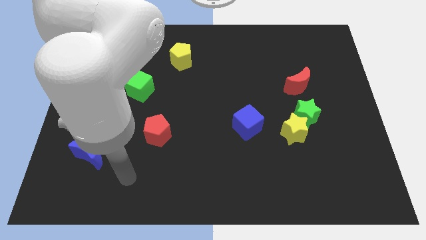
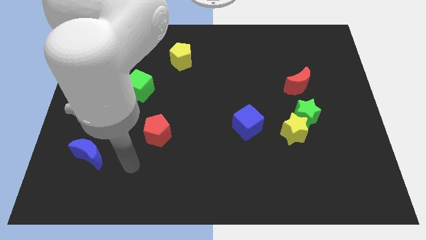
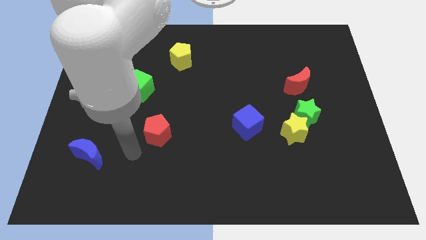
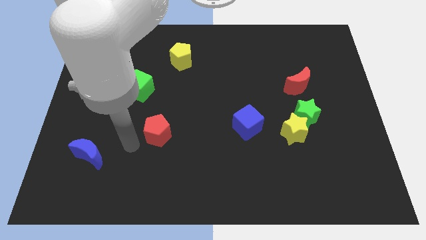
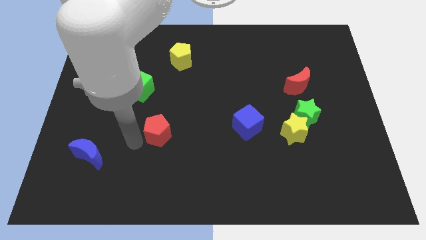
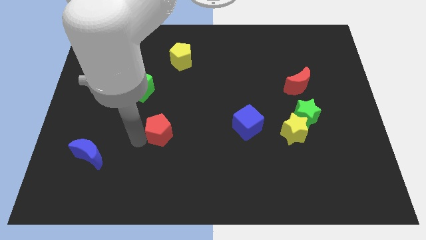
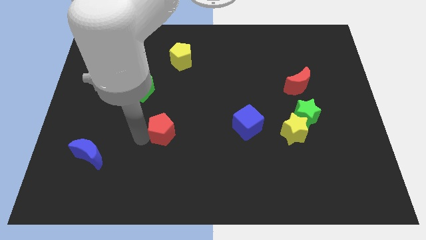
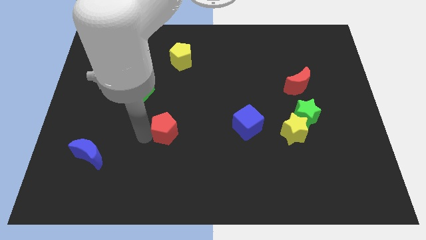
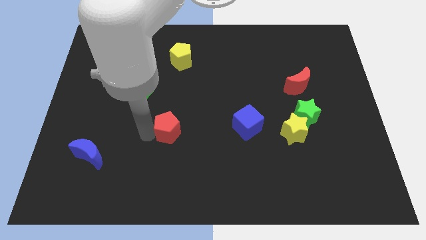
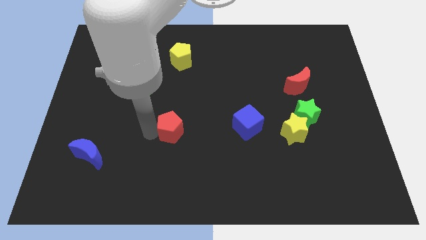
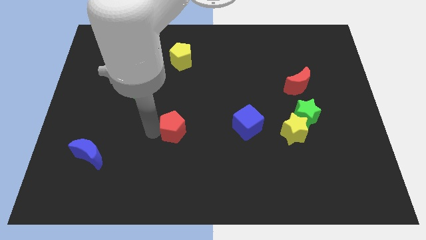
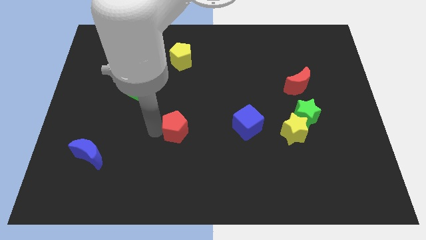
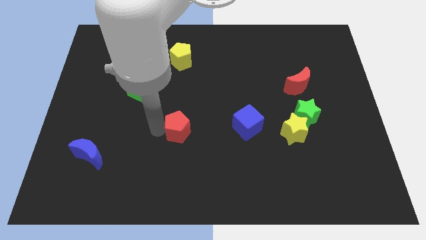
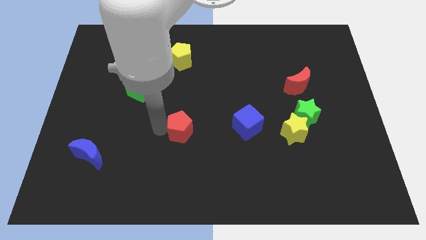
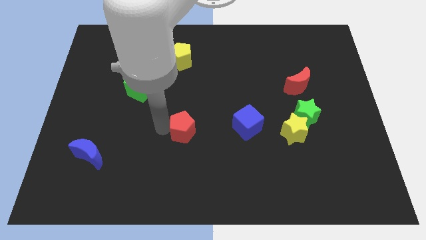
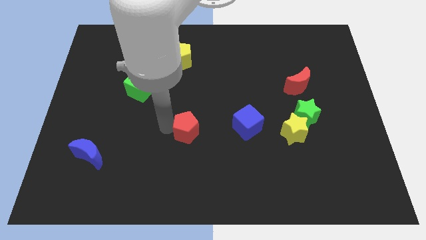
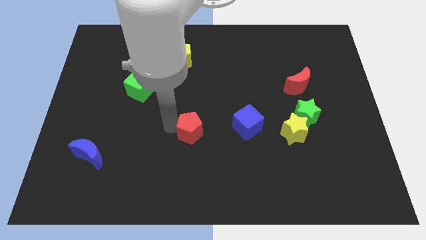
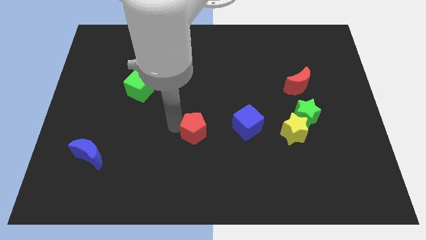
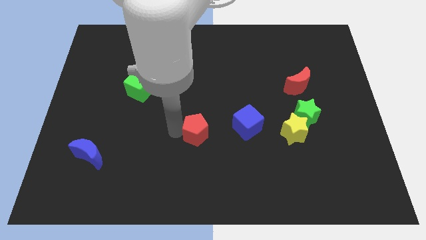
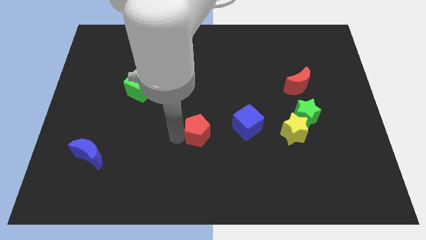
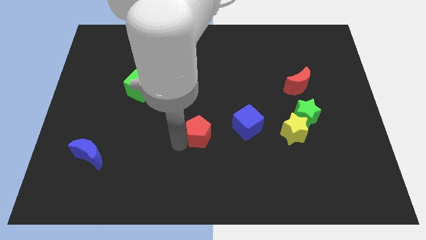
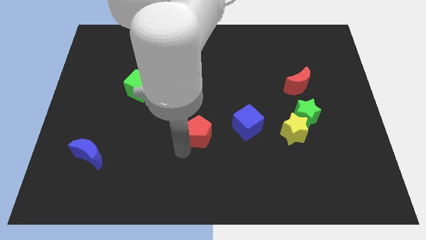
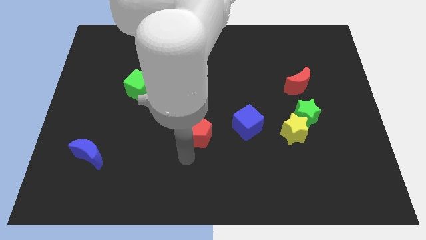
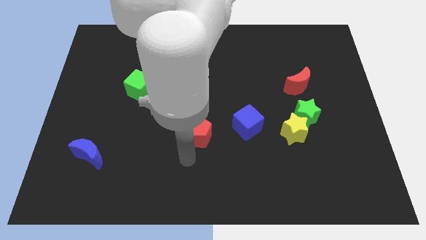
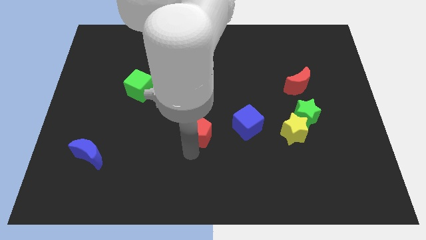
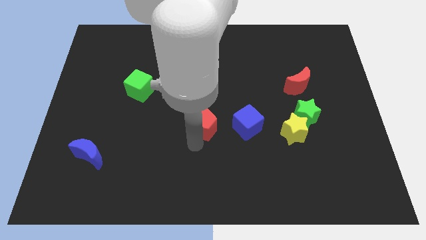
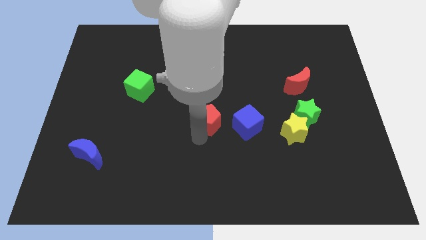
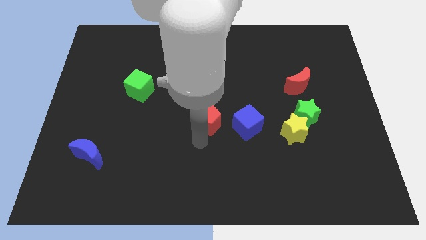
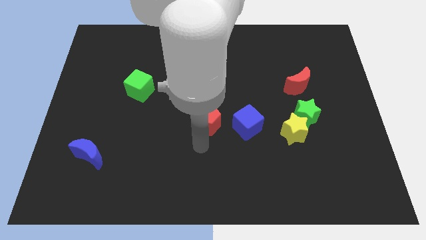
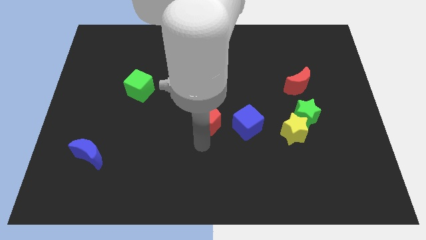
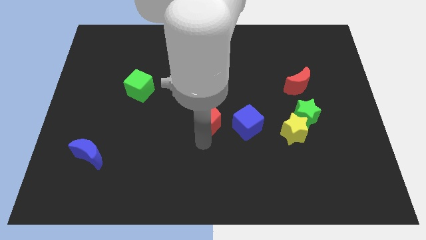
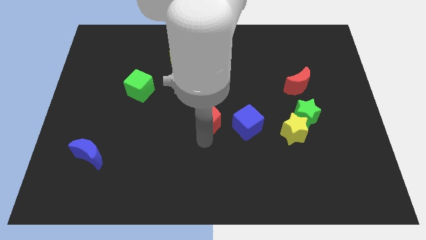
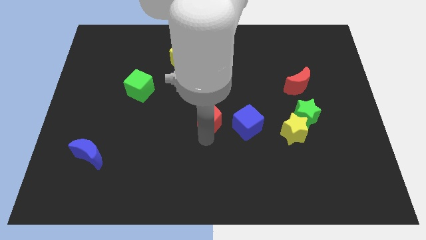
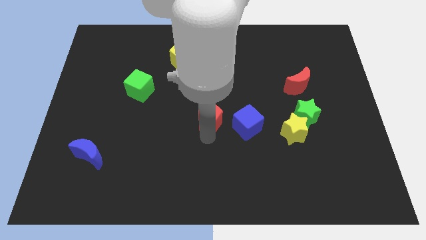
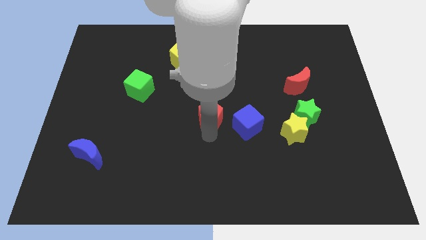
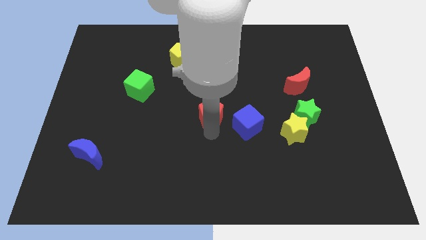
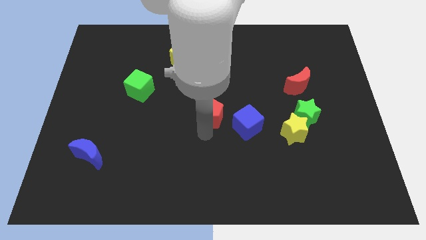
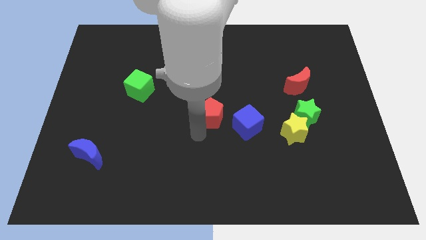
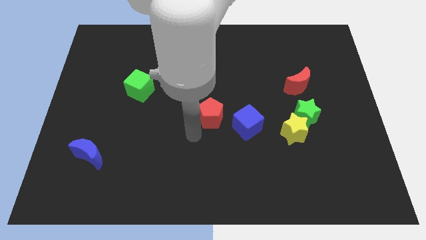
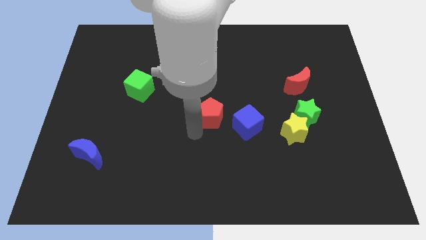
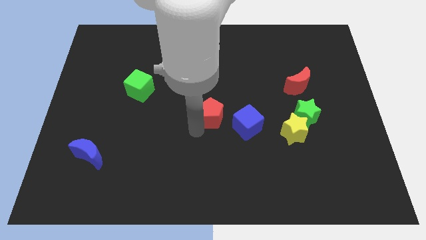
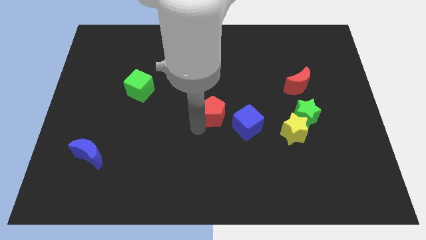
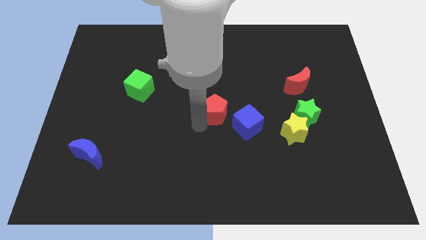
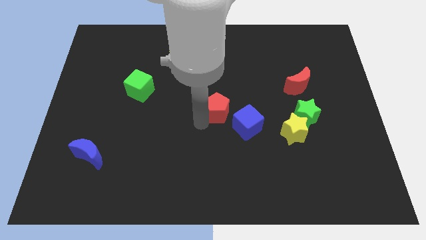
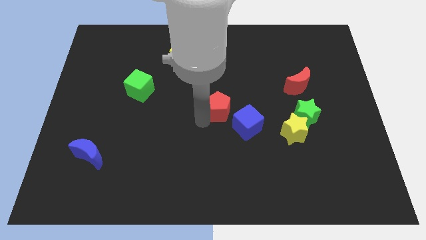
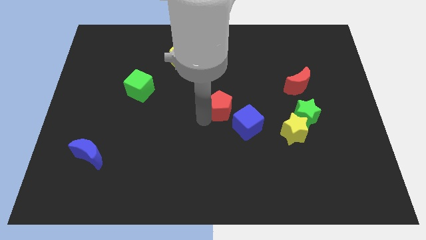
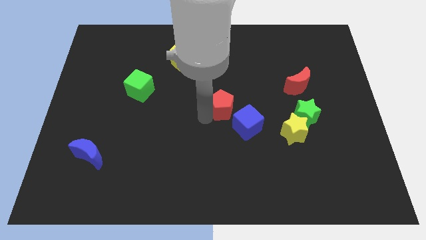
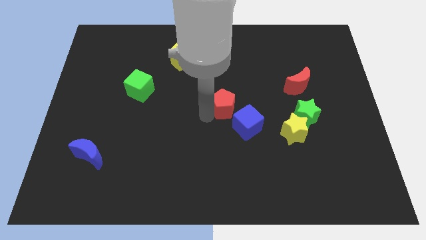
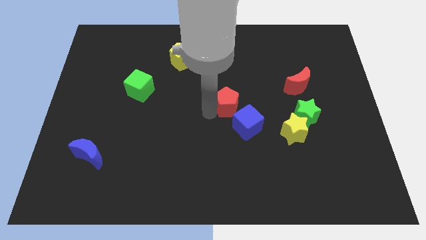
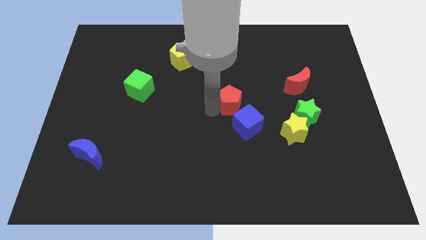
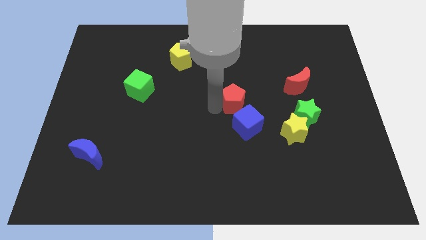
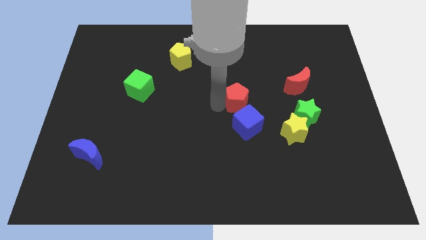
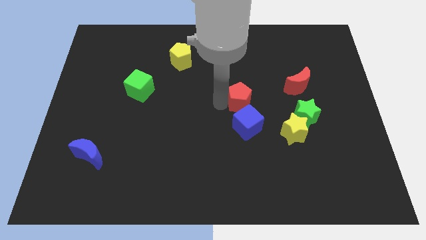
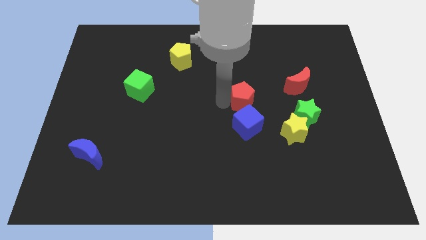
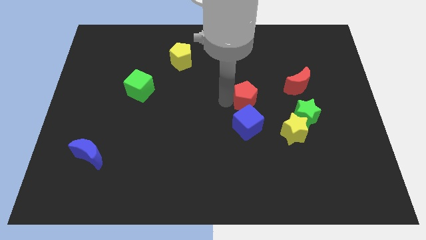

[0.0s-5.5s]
slide the red pentagon to the left side of the red moon
